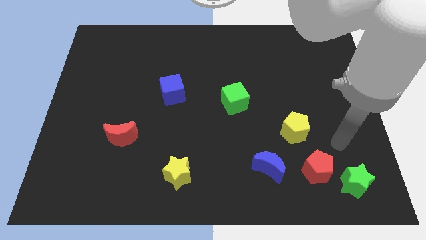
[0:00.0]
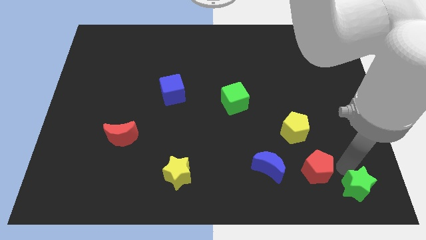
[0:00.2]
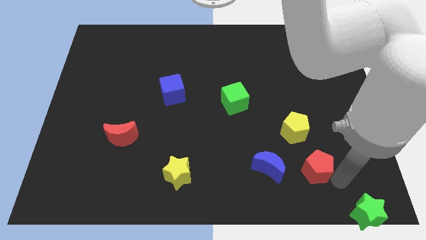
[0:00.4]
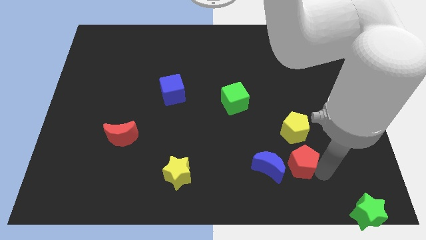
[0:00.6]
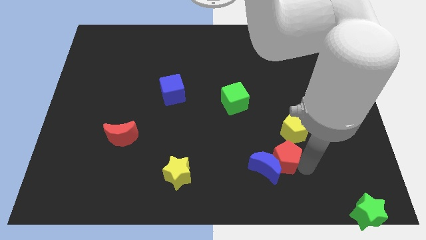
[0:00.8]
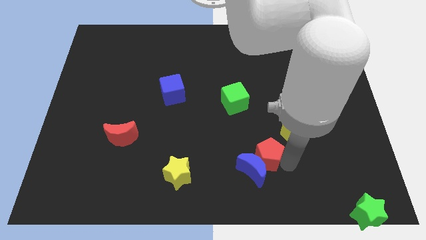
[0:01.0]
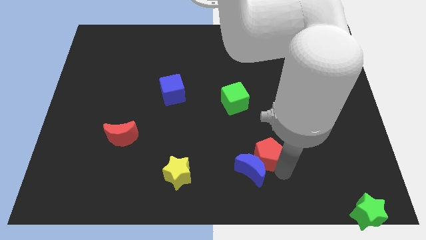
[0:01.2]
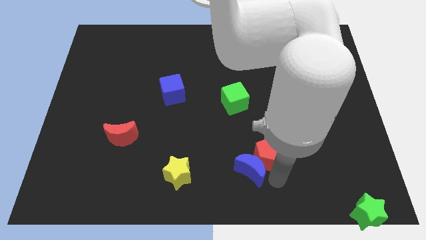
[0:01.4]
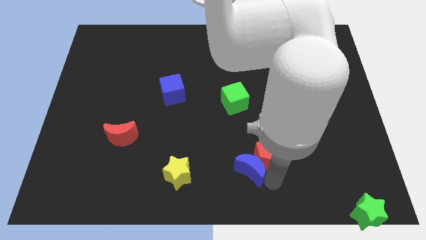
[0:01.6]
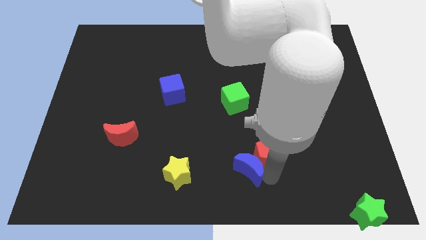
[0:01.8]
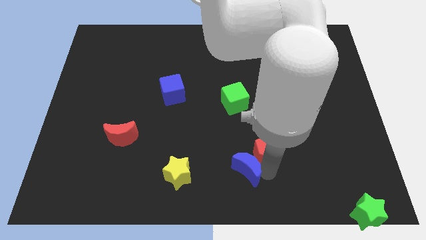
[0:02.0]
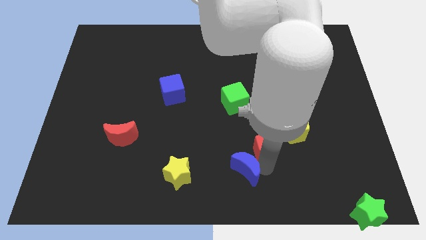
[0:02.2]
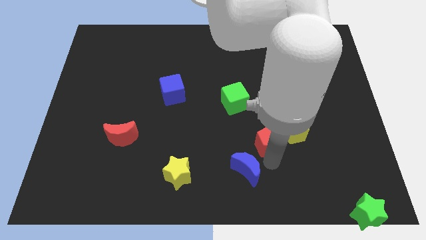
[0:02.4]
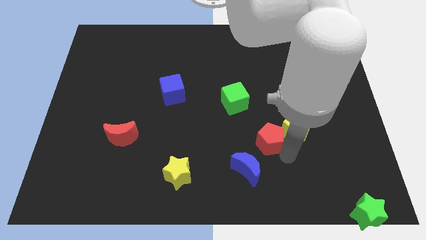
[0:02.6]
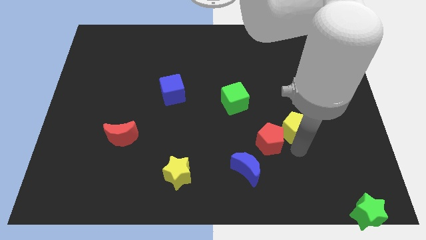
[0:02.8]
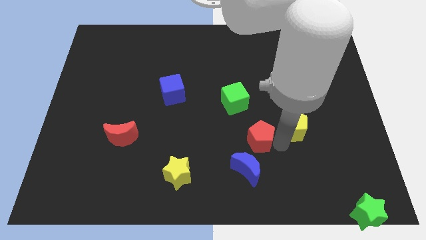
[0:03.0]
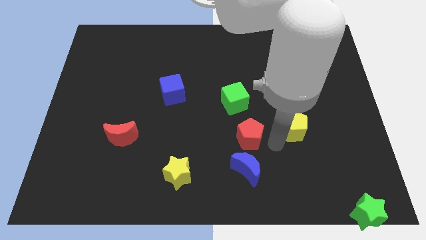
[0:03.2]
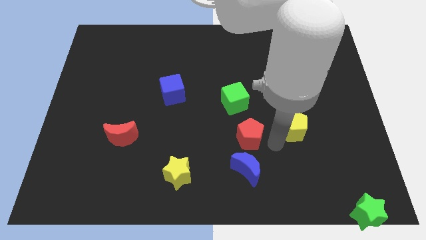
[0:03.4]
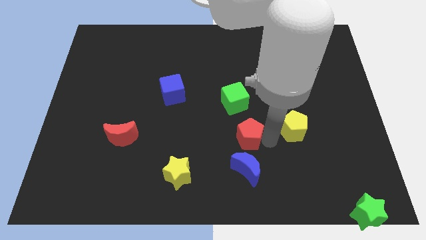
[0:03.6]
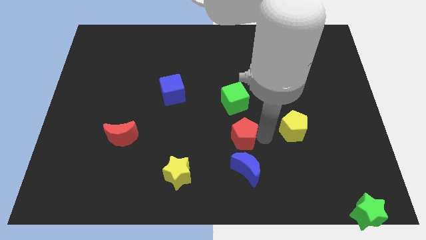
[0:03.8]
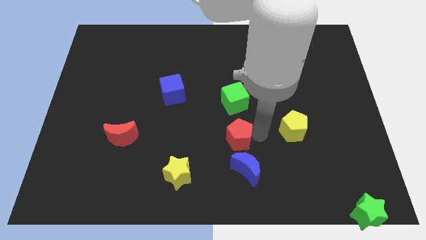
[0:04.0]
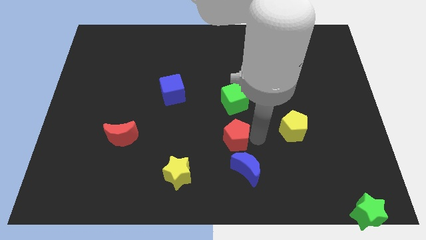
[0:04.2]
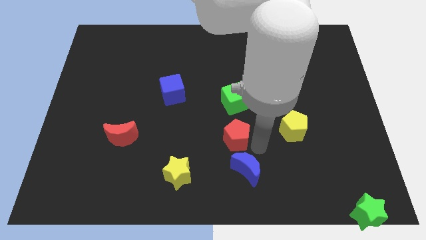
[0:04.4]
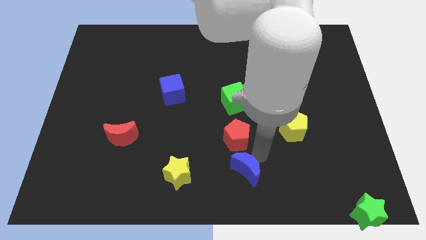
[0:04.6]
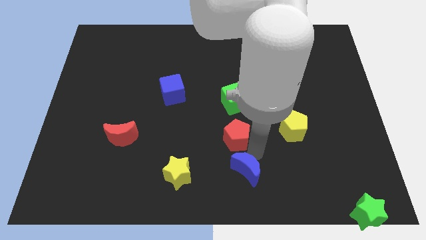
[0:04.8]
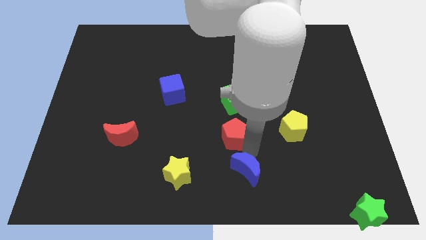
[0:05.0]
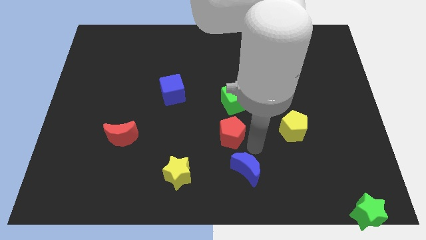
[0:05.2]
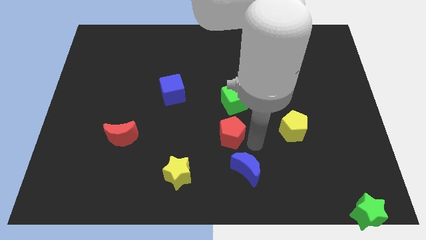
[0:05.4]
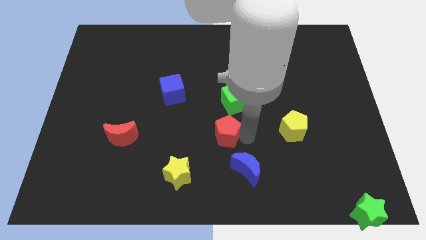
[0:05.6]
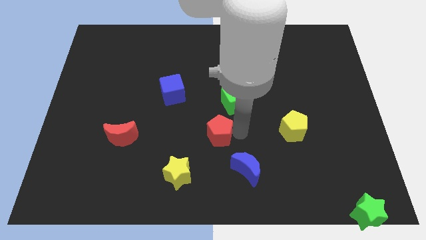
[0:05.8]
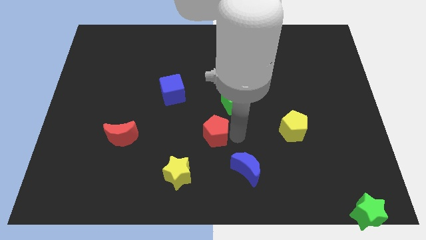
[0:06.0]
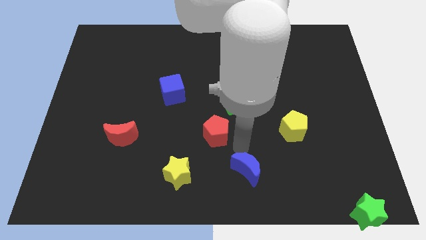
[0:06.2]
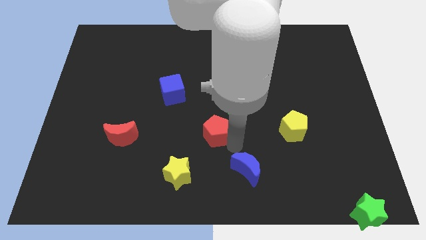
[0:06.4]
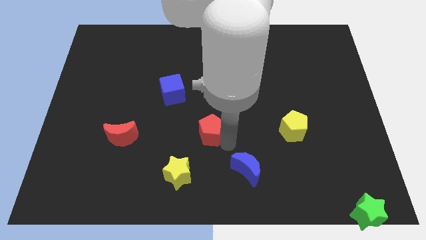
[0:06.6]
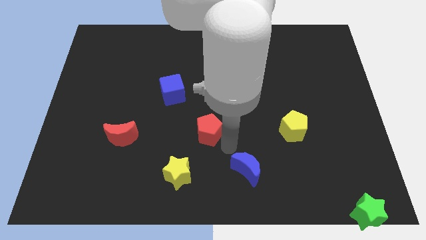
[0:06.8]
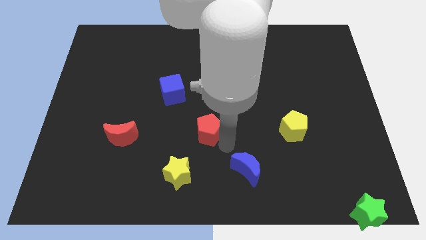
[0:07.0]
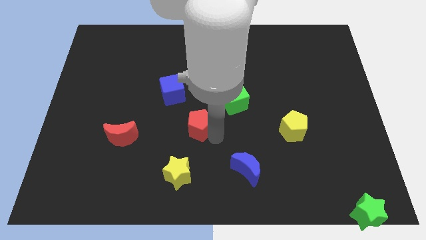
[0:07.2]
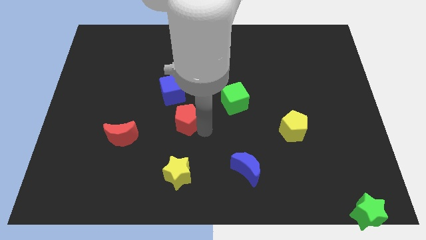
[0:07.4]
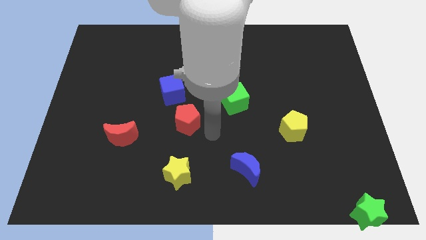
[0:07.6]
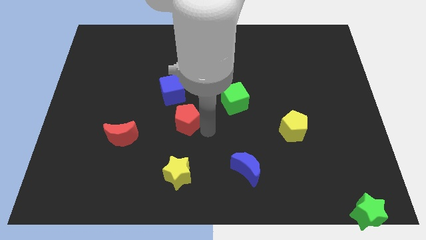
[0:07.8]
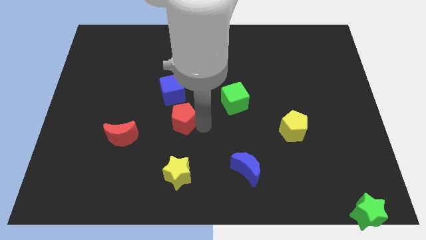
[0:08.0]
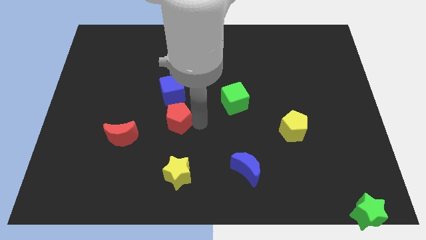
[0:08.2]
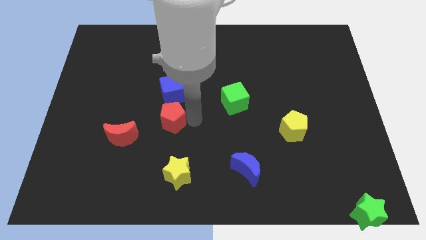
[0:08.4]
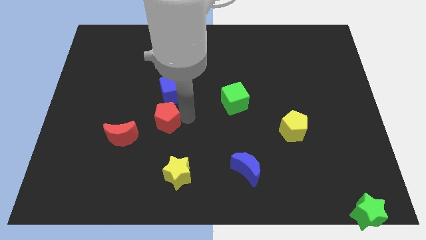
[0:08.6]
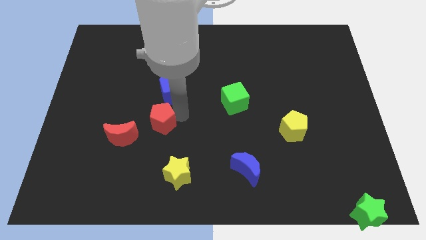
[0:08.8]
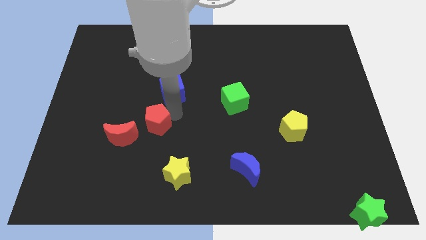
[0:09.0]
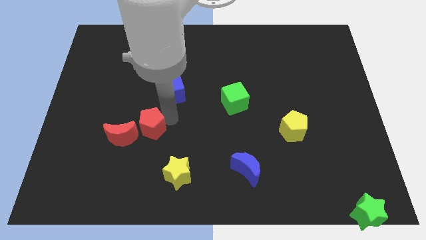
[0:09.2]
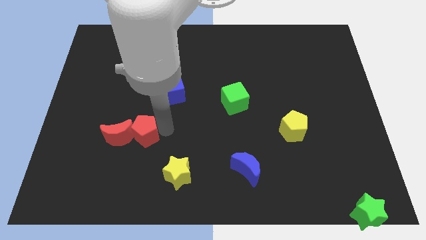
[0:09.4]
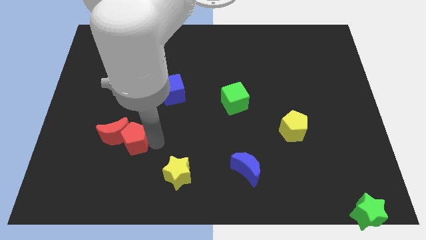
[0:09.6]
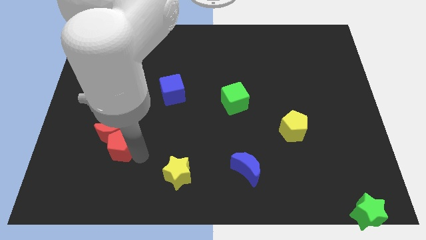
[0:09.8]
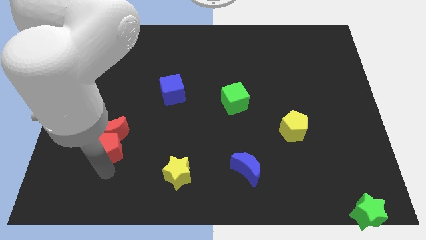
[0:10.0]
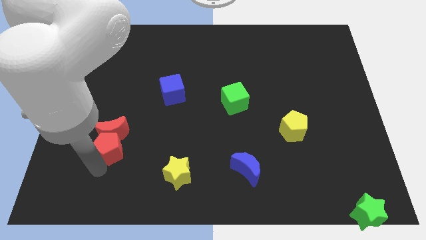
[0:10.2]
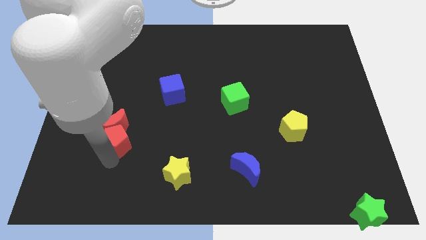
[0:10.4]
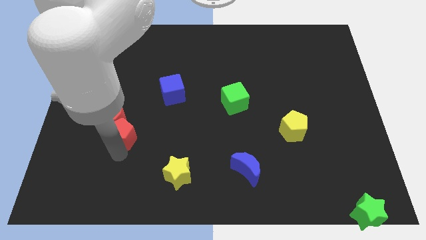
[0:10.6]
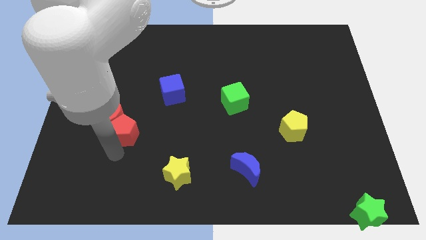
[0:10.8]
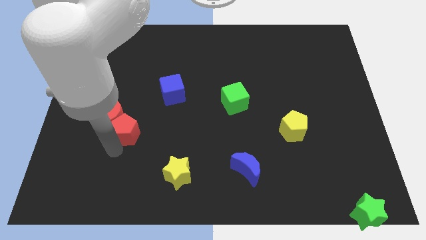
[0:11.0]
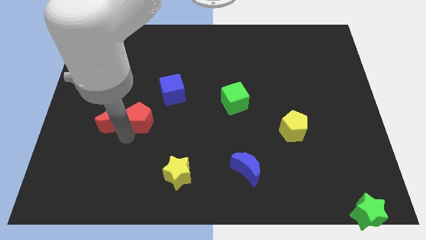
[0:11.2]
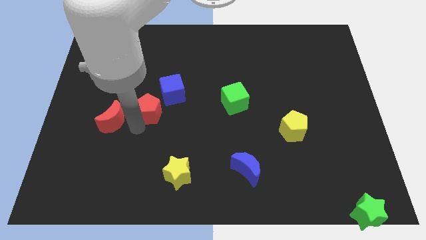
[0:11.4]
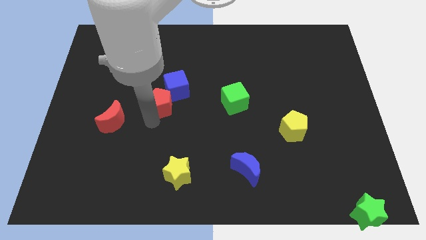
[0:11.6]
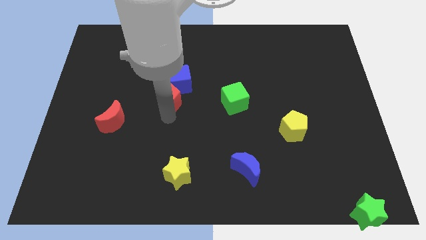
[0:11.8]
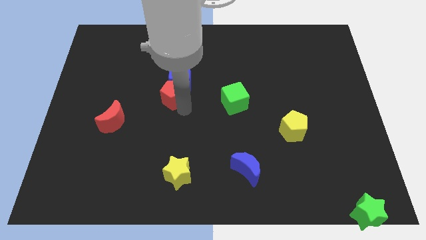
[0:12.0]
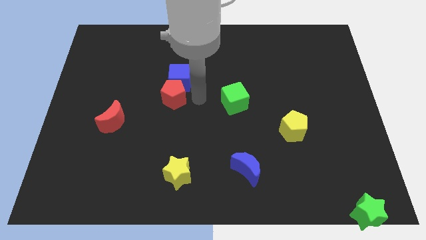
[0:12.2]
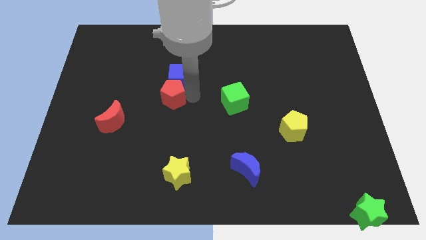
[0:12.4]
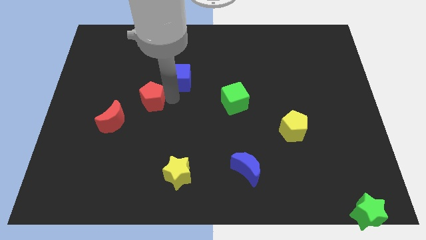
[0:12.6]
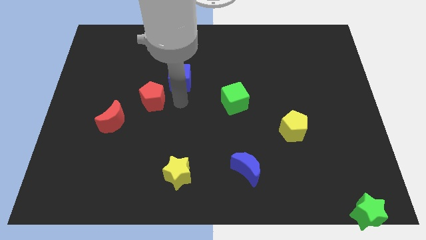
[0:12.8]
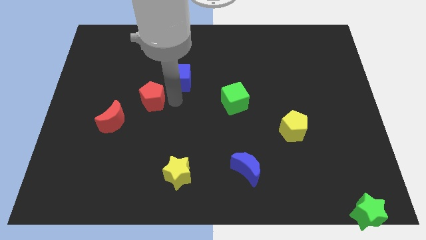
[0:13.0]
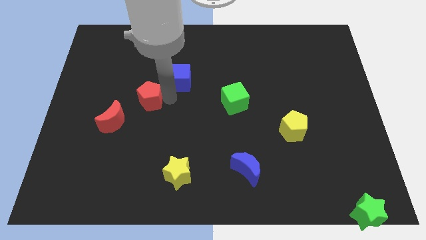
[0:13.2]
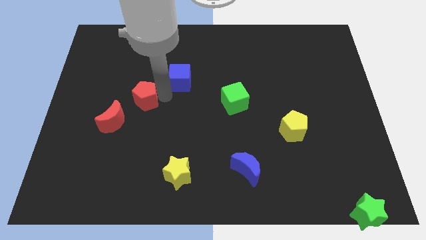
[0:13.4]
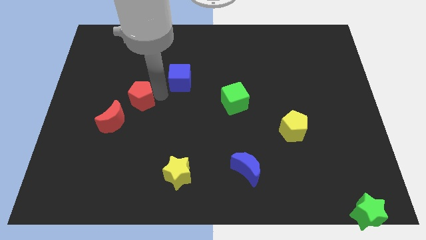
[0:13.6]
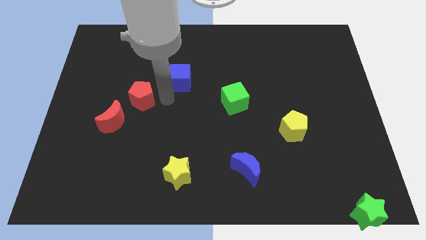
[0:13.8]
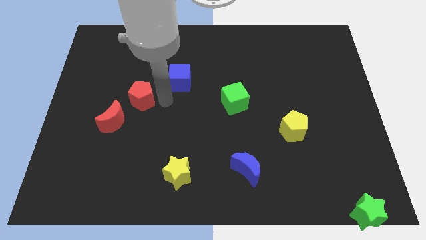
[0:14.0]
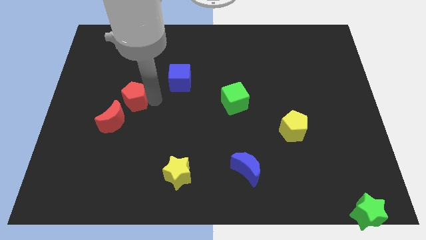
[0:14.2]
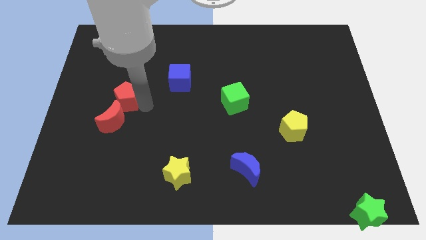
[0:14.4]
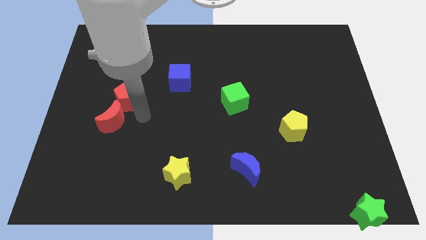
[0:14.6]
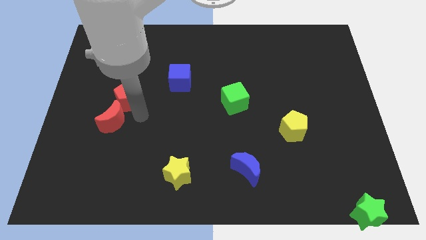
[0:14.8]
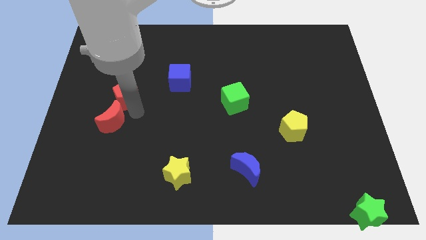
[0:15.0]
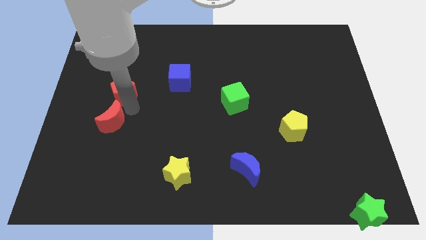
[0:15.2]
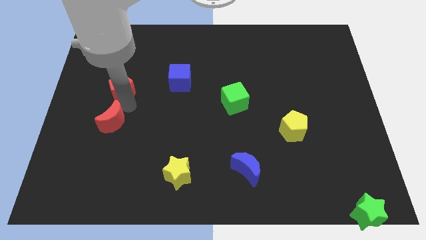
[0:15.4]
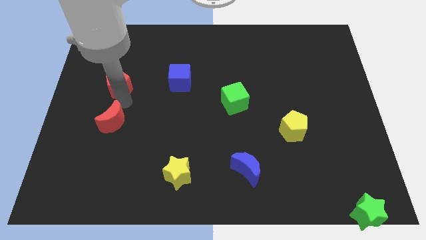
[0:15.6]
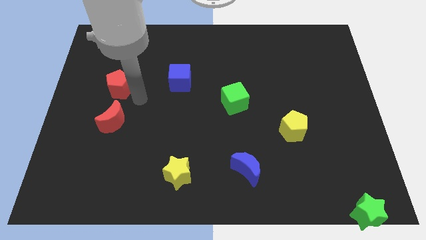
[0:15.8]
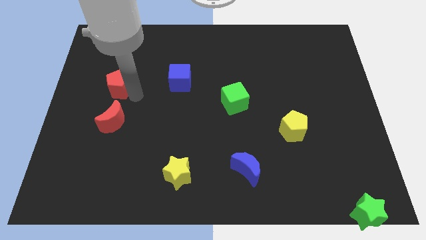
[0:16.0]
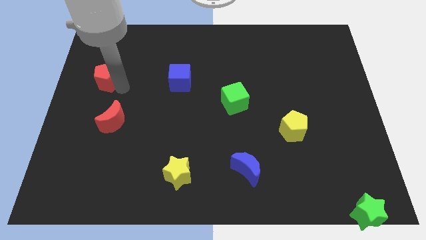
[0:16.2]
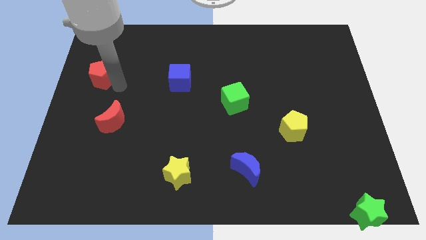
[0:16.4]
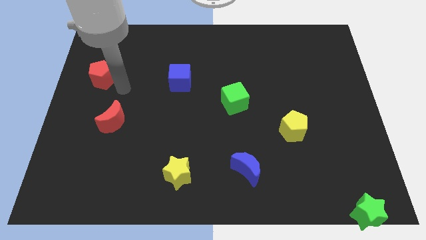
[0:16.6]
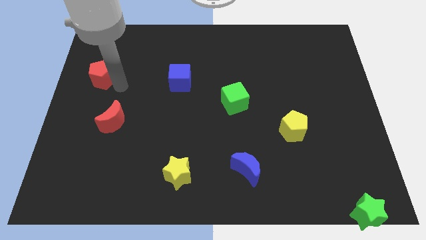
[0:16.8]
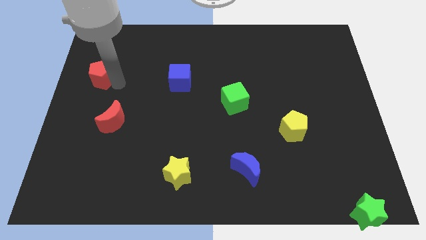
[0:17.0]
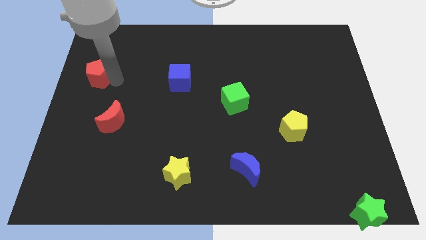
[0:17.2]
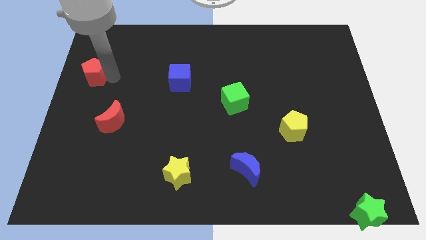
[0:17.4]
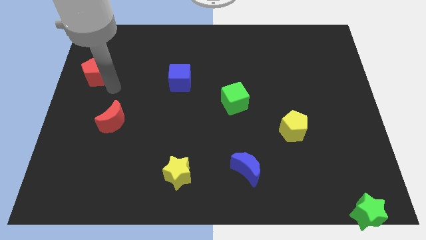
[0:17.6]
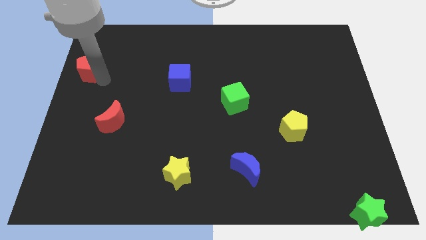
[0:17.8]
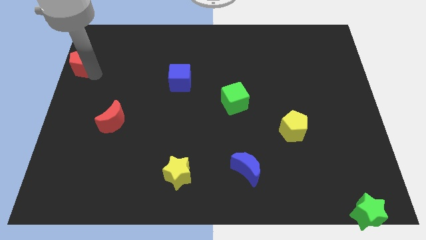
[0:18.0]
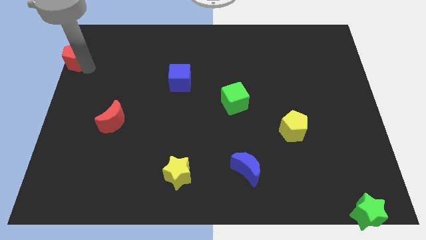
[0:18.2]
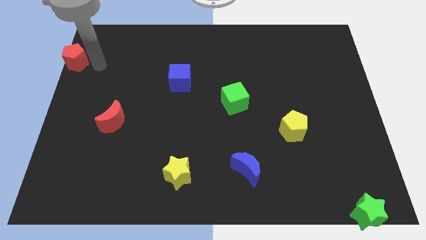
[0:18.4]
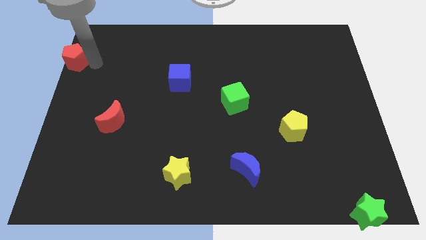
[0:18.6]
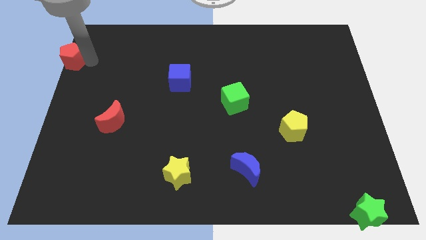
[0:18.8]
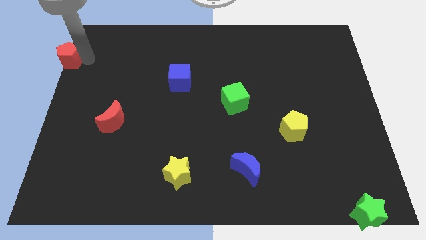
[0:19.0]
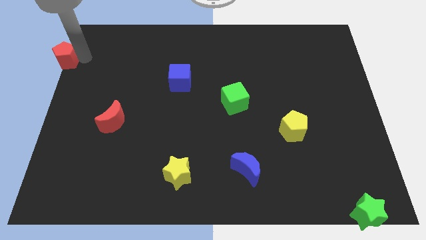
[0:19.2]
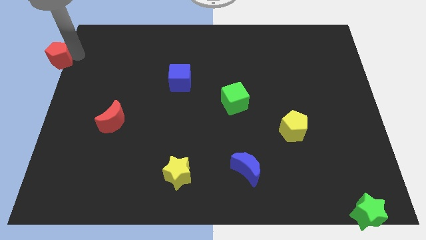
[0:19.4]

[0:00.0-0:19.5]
slide the red pentagon to the top left
